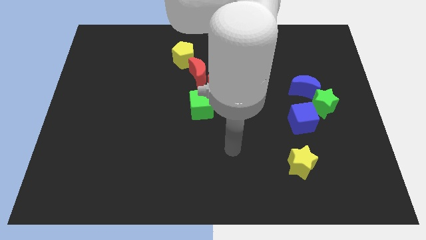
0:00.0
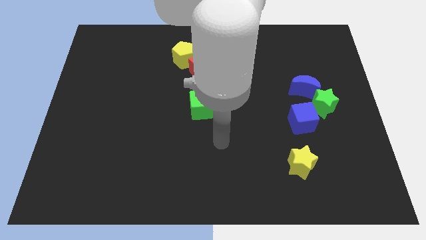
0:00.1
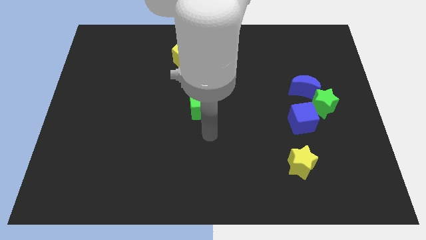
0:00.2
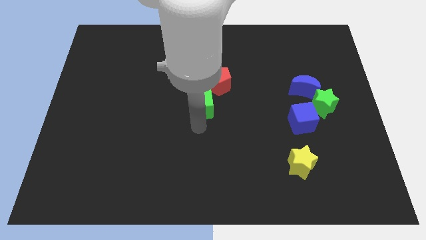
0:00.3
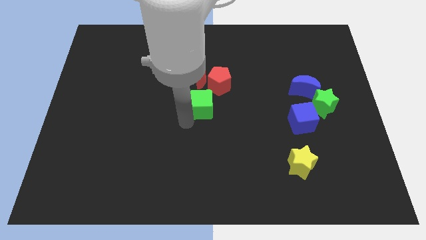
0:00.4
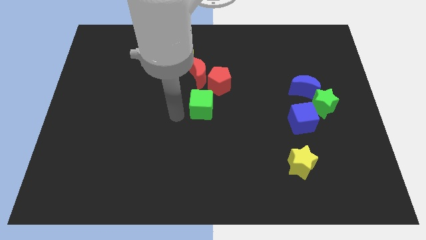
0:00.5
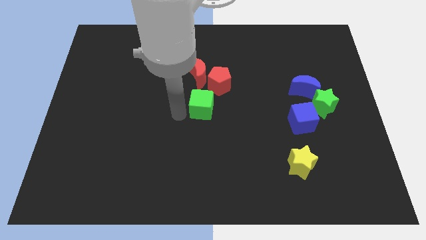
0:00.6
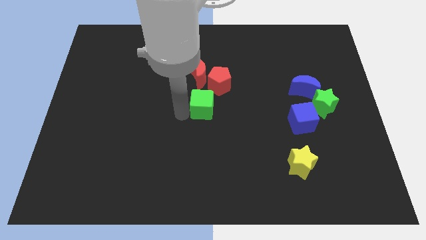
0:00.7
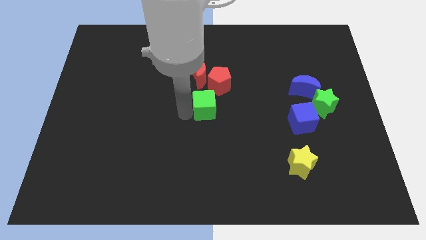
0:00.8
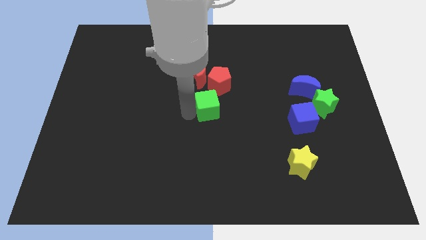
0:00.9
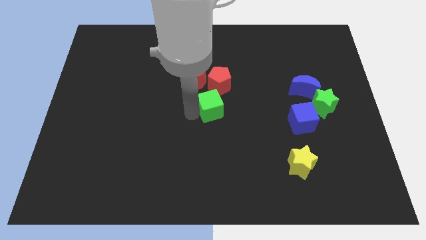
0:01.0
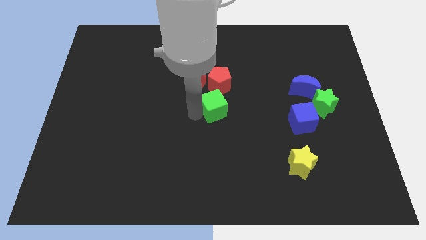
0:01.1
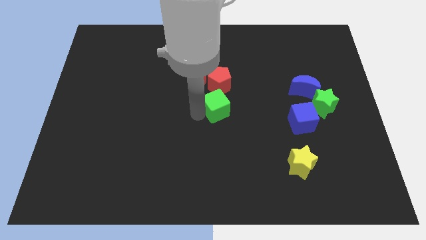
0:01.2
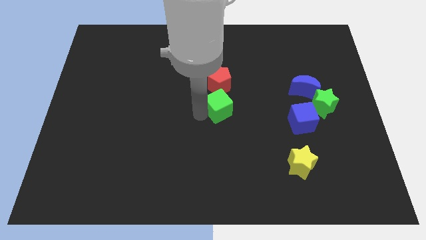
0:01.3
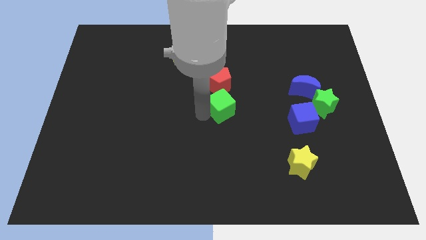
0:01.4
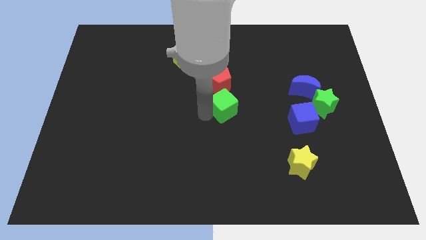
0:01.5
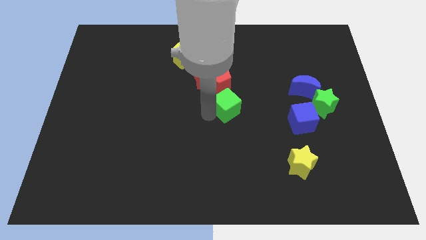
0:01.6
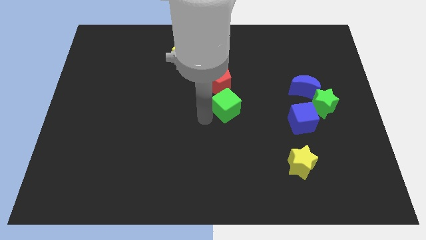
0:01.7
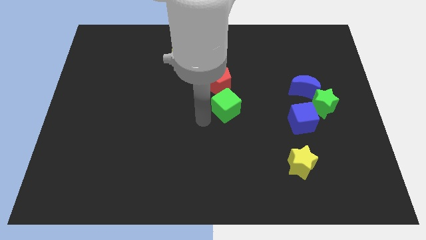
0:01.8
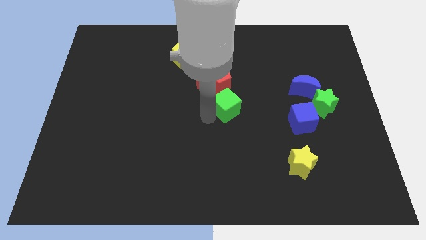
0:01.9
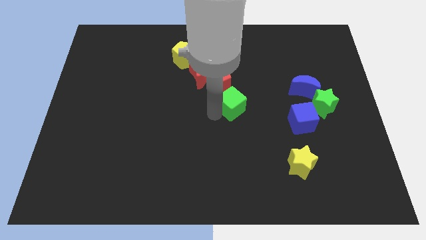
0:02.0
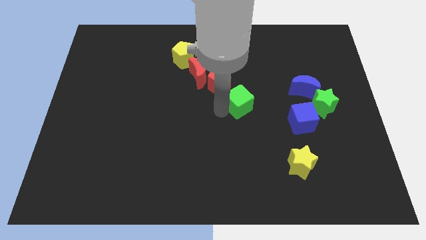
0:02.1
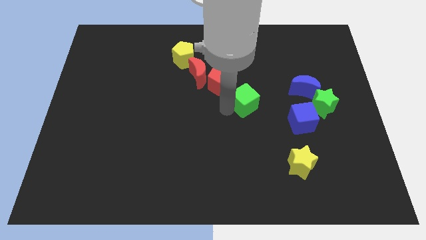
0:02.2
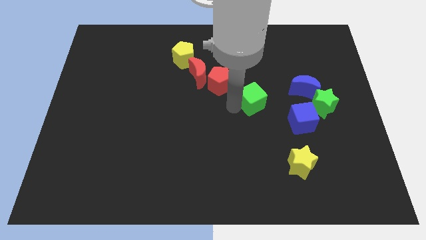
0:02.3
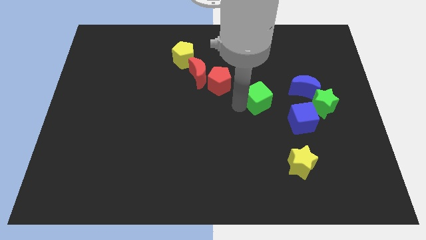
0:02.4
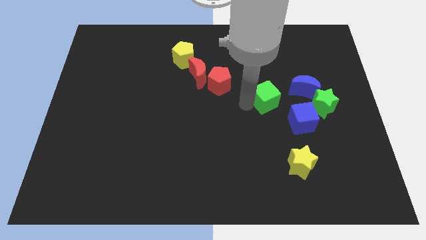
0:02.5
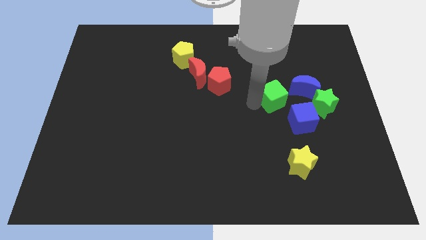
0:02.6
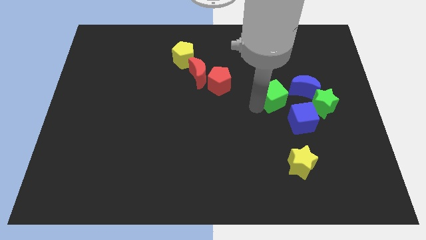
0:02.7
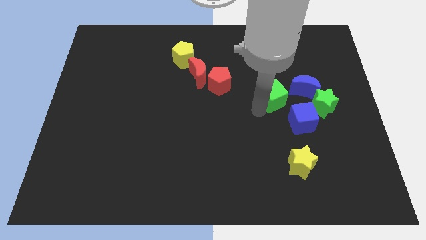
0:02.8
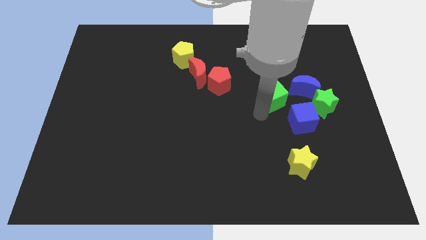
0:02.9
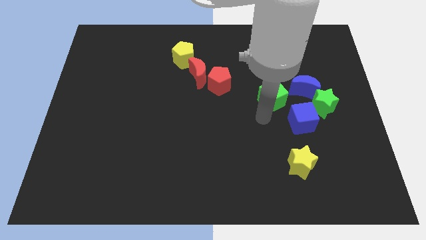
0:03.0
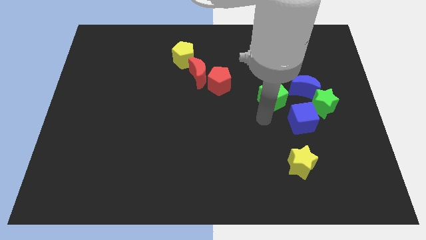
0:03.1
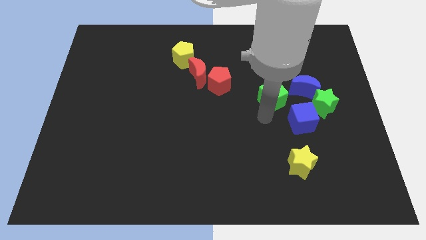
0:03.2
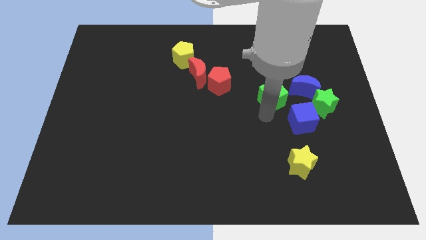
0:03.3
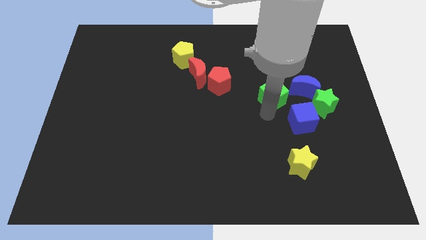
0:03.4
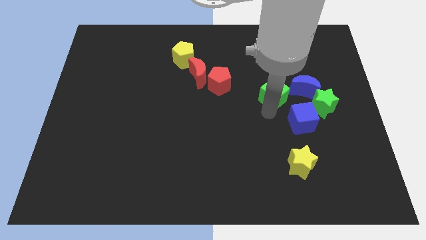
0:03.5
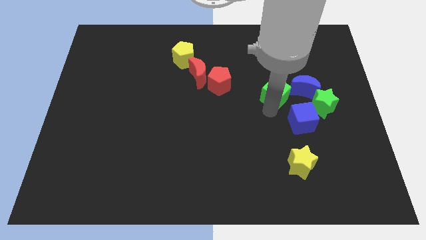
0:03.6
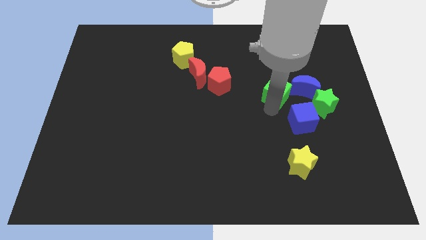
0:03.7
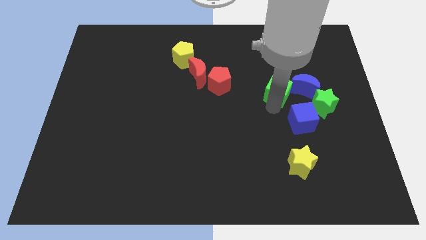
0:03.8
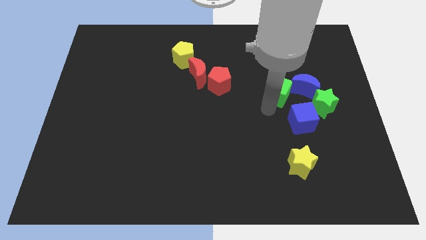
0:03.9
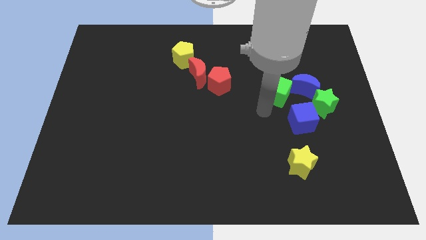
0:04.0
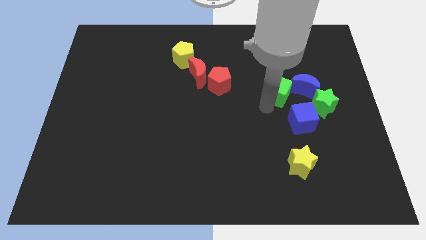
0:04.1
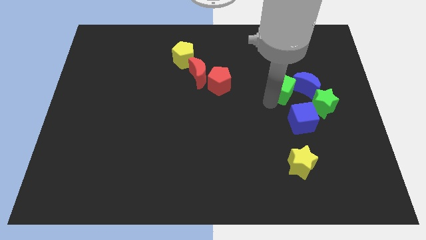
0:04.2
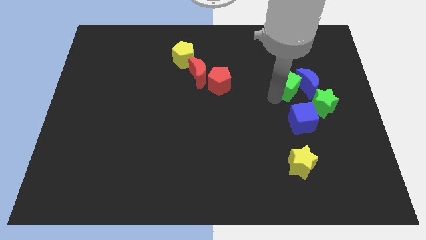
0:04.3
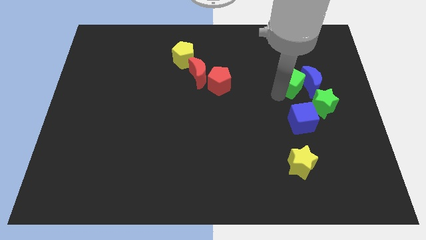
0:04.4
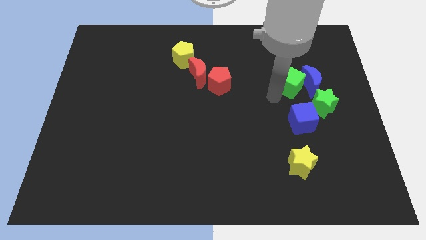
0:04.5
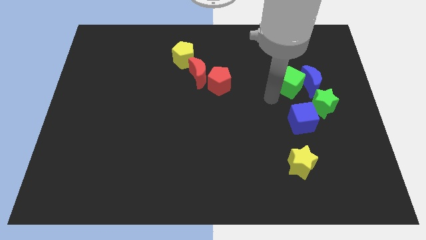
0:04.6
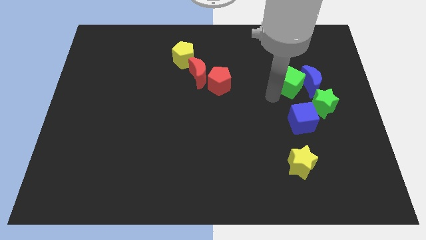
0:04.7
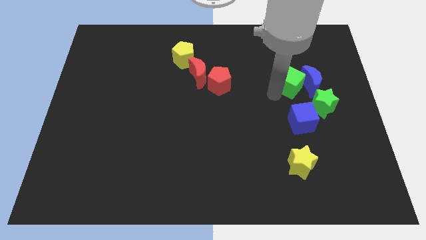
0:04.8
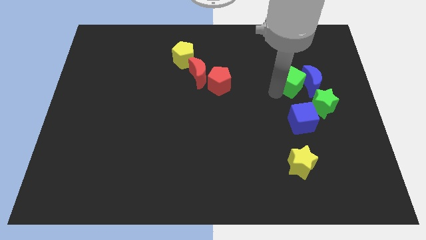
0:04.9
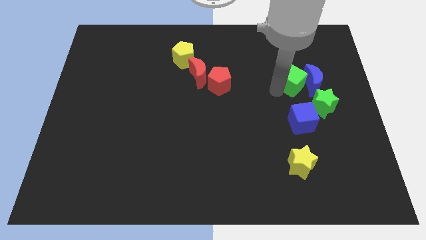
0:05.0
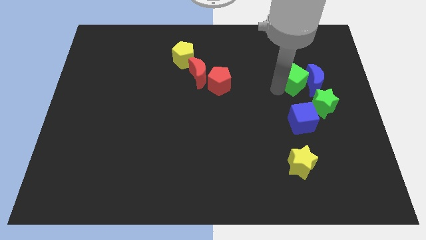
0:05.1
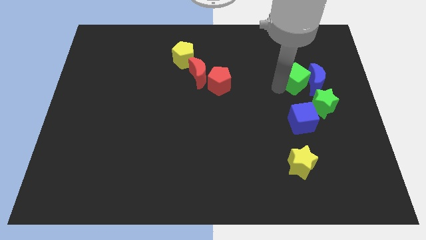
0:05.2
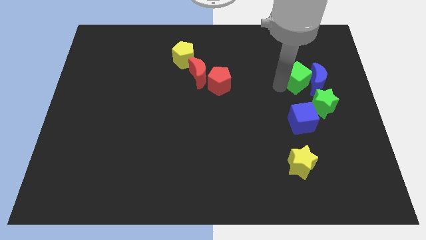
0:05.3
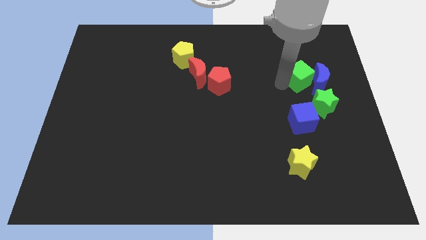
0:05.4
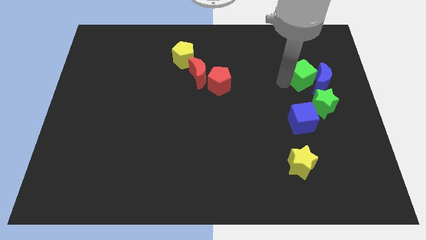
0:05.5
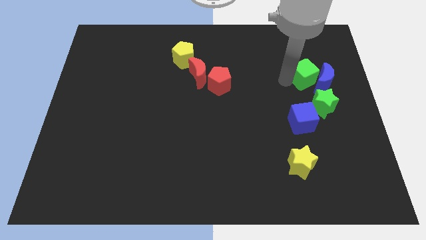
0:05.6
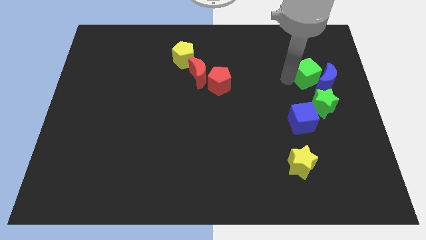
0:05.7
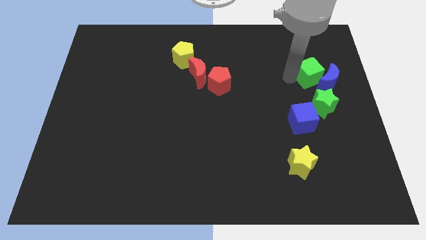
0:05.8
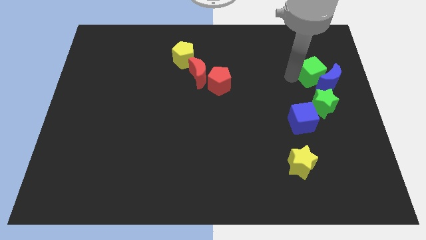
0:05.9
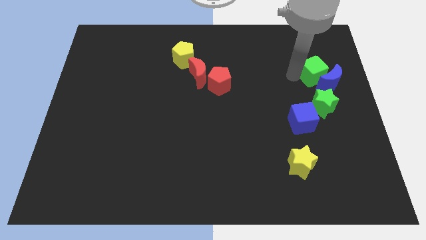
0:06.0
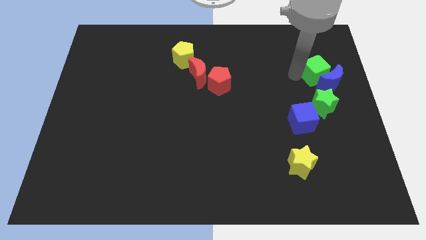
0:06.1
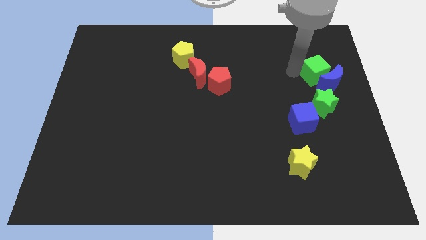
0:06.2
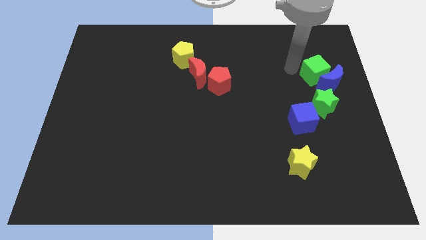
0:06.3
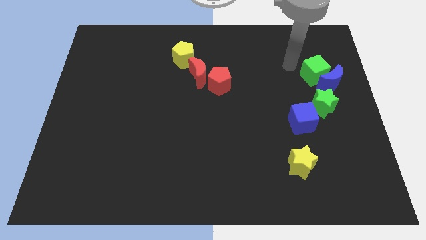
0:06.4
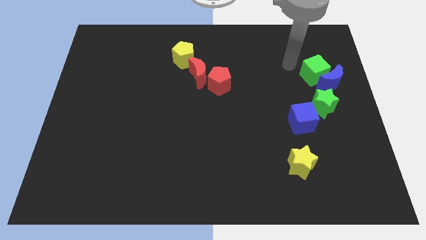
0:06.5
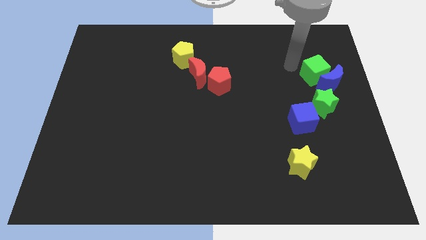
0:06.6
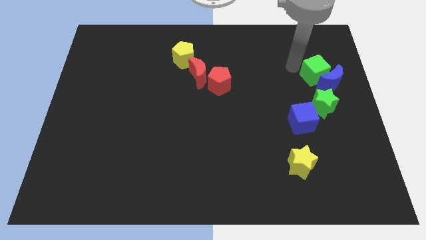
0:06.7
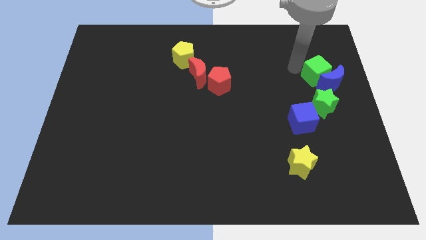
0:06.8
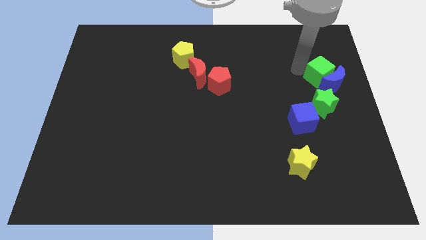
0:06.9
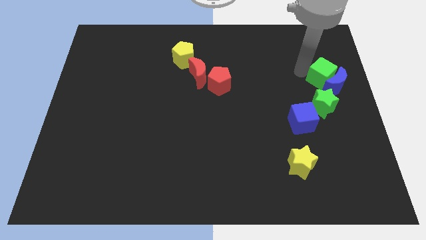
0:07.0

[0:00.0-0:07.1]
move the green cube to the center right

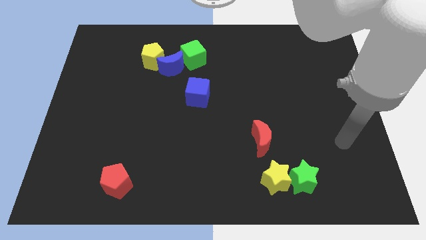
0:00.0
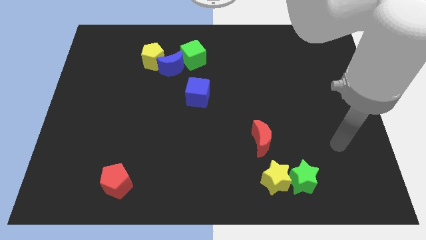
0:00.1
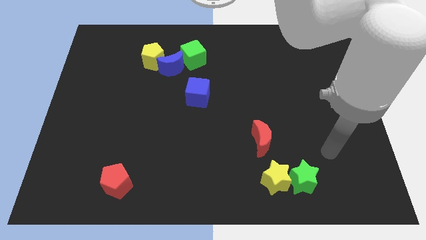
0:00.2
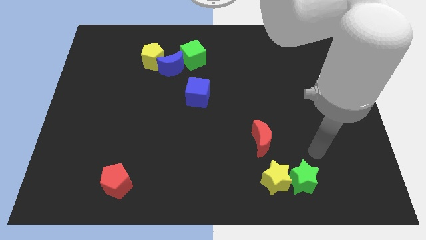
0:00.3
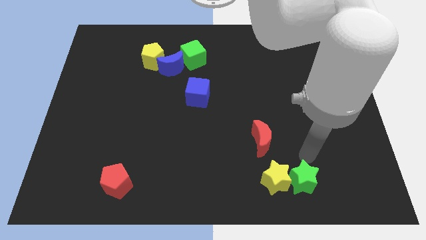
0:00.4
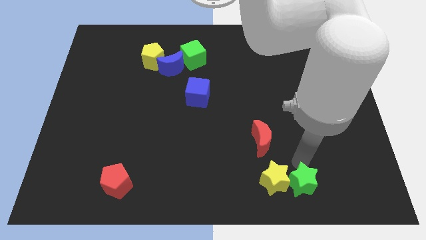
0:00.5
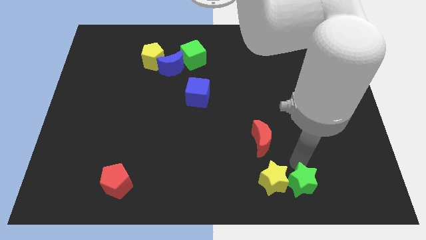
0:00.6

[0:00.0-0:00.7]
move the yellow star to the bottom
